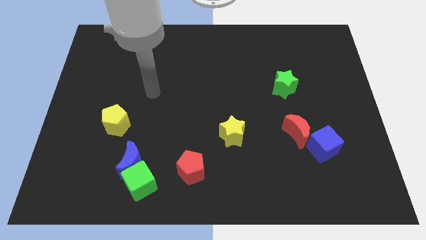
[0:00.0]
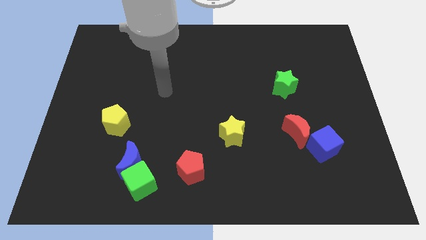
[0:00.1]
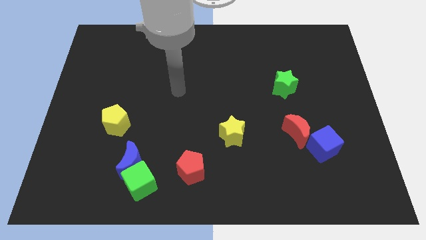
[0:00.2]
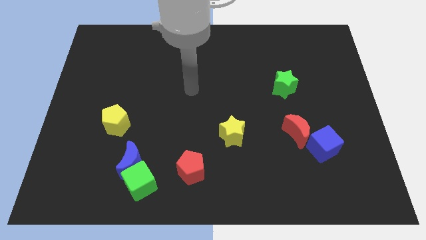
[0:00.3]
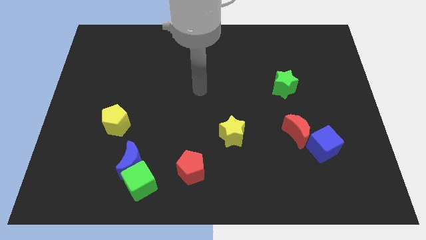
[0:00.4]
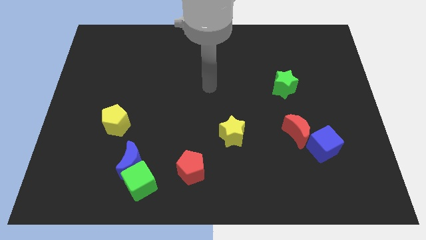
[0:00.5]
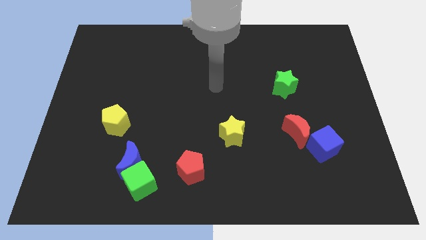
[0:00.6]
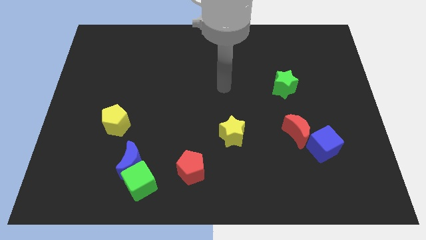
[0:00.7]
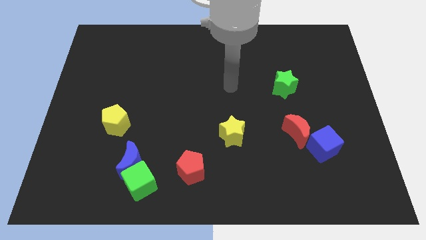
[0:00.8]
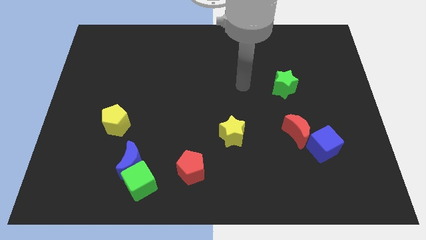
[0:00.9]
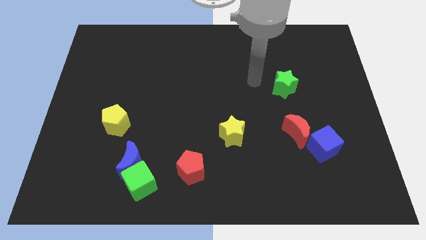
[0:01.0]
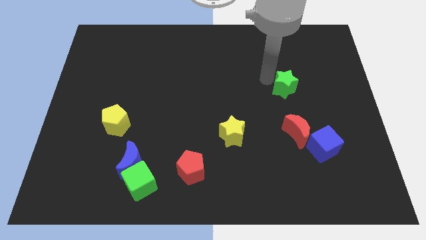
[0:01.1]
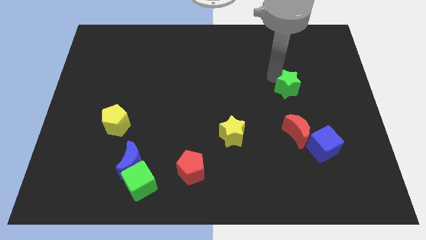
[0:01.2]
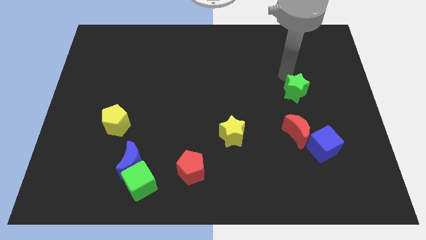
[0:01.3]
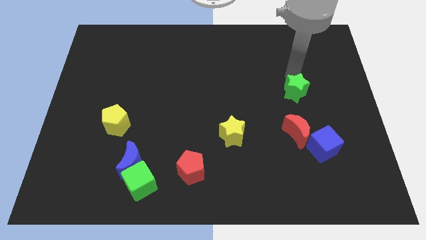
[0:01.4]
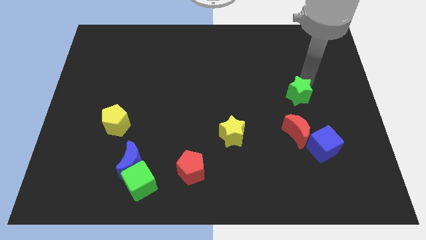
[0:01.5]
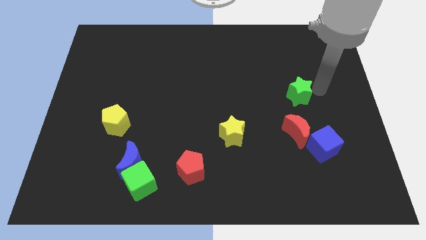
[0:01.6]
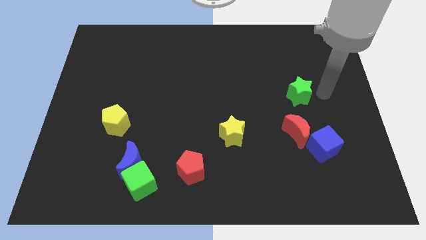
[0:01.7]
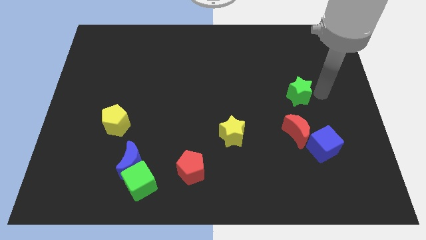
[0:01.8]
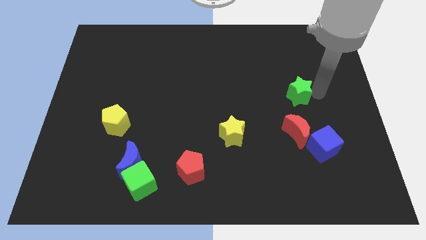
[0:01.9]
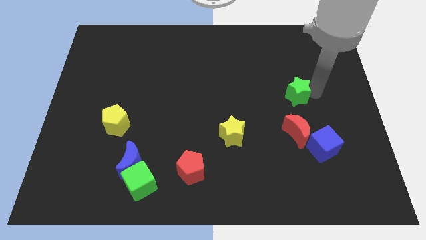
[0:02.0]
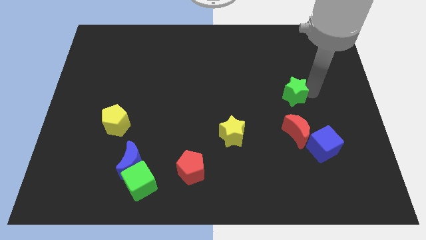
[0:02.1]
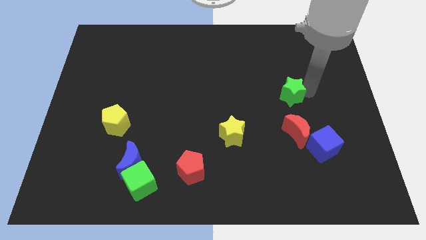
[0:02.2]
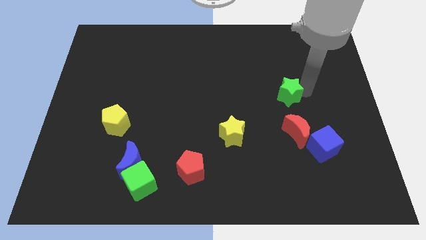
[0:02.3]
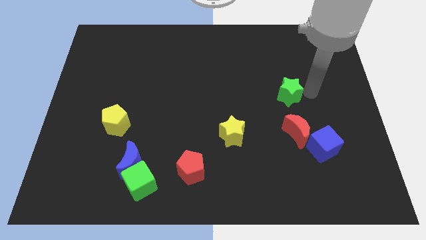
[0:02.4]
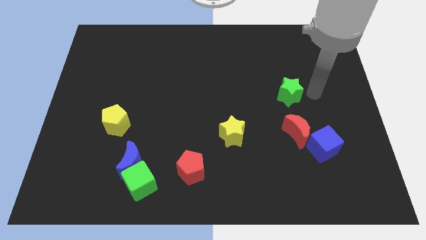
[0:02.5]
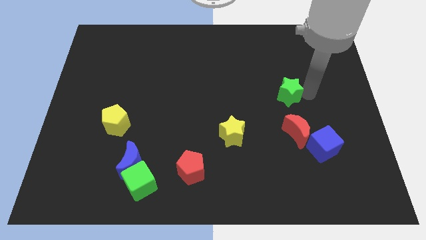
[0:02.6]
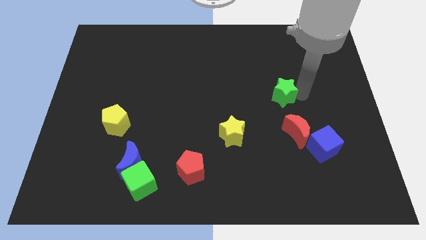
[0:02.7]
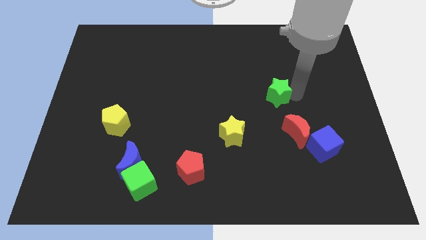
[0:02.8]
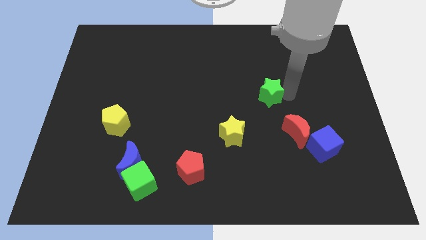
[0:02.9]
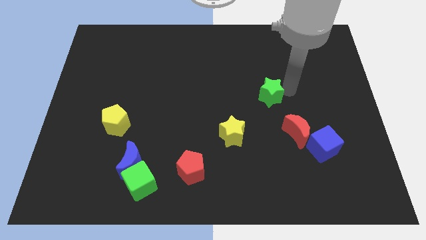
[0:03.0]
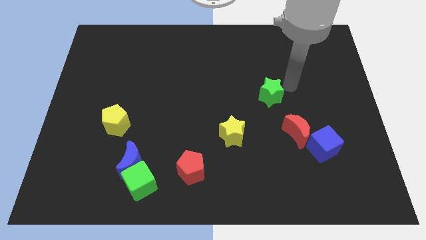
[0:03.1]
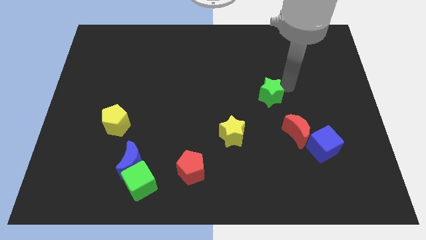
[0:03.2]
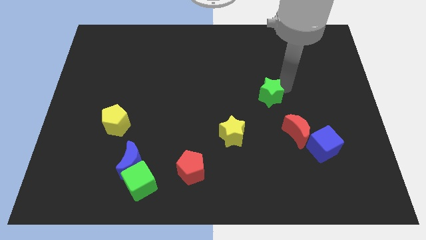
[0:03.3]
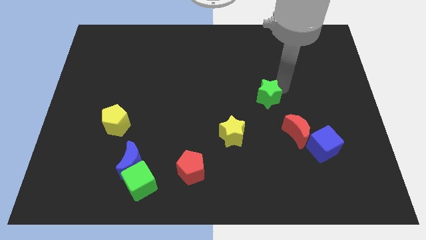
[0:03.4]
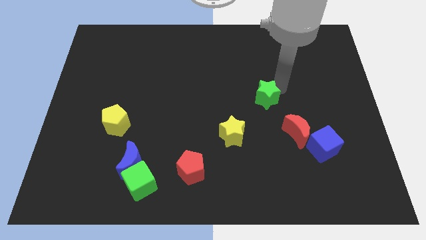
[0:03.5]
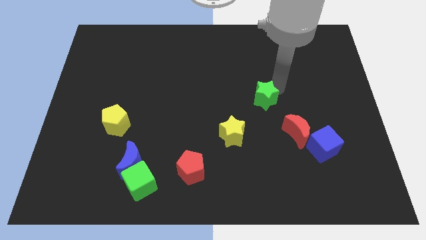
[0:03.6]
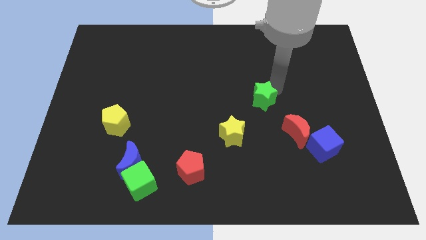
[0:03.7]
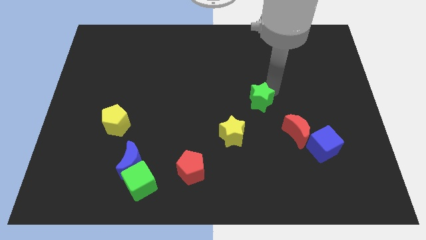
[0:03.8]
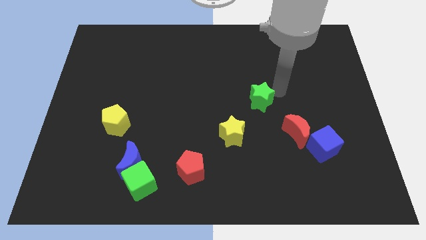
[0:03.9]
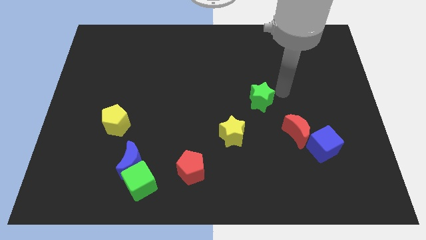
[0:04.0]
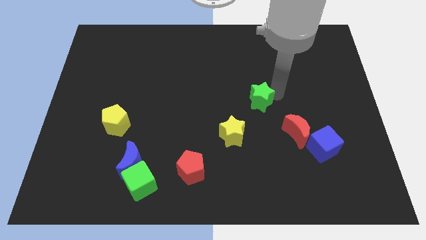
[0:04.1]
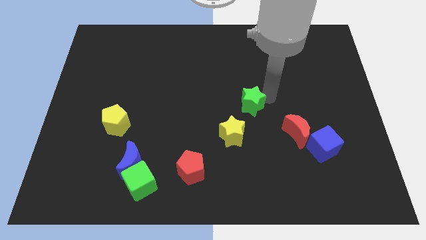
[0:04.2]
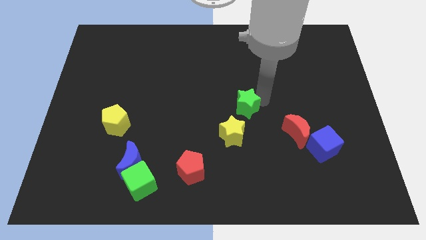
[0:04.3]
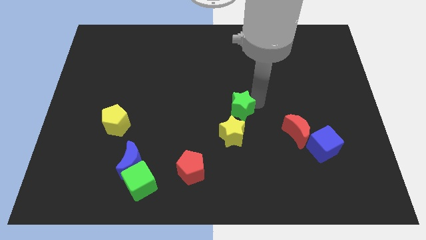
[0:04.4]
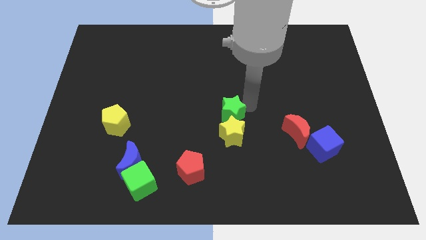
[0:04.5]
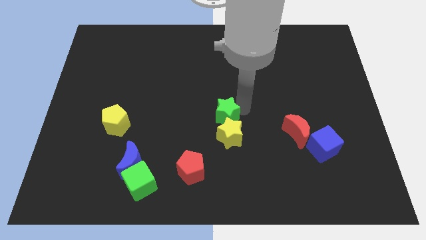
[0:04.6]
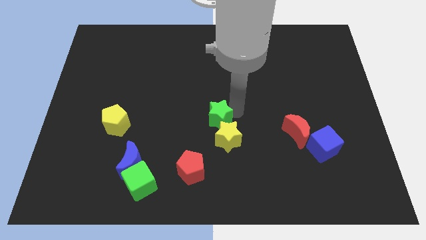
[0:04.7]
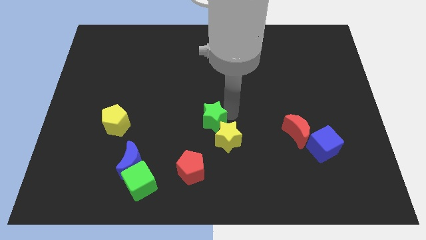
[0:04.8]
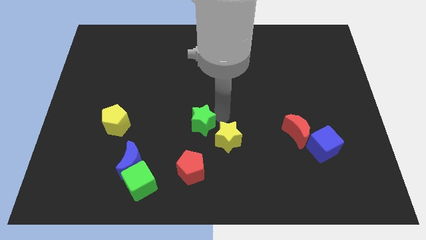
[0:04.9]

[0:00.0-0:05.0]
put the green star to the left side of the yellow star

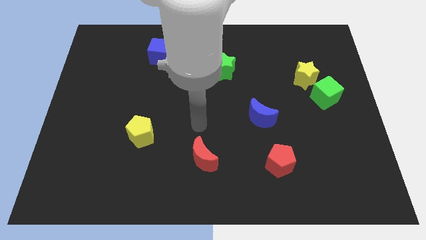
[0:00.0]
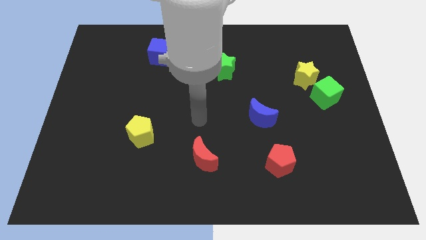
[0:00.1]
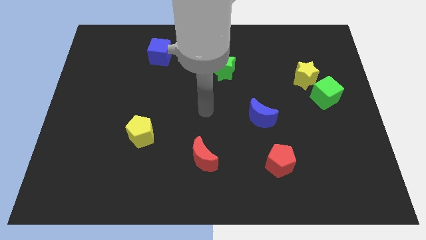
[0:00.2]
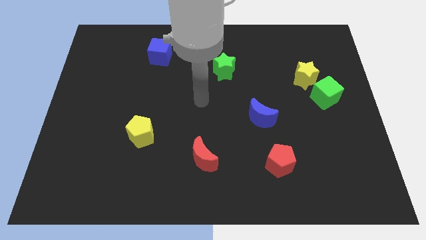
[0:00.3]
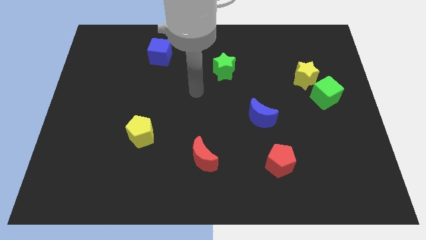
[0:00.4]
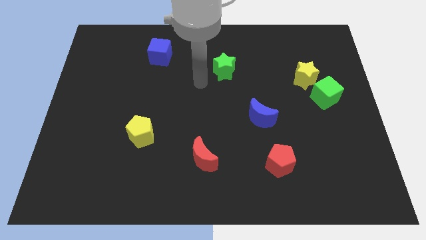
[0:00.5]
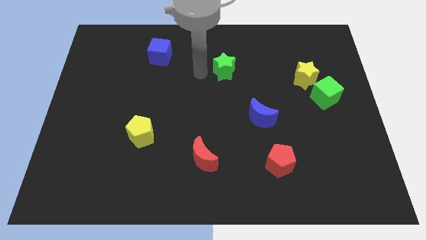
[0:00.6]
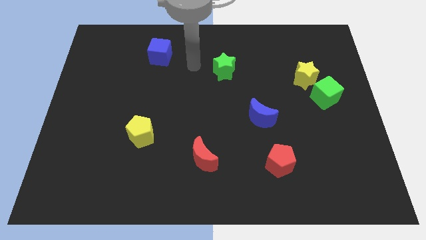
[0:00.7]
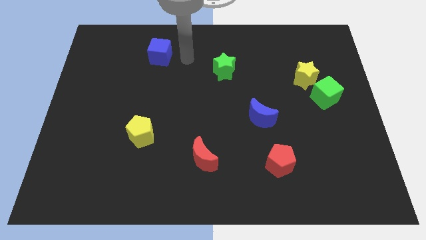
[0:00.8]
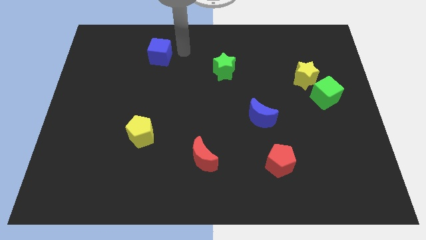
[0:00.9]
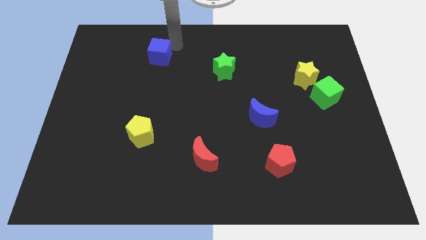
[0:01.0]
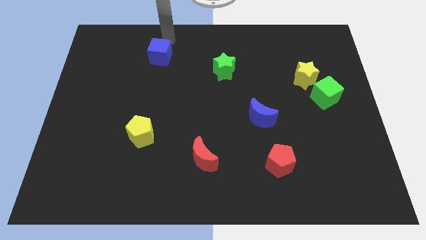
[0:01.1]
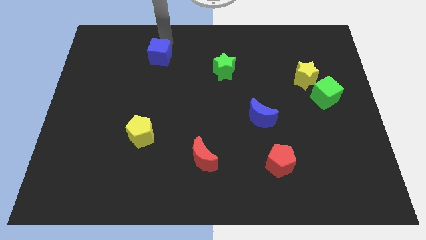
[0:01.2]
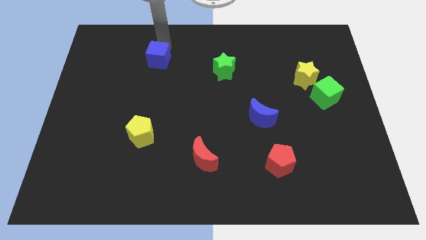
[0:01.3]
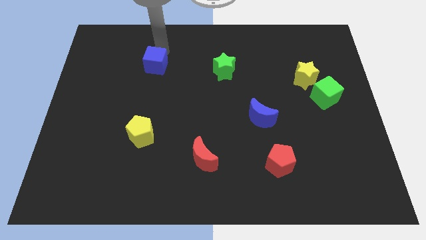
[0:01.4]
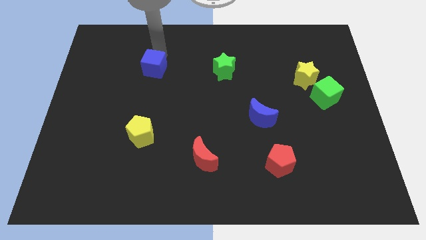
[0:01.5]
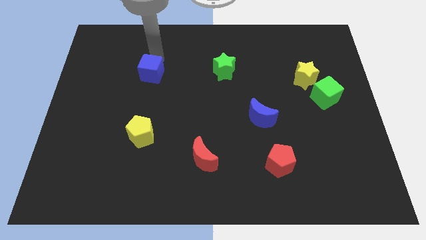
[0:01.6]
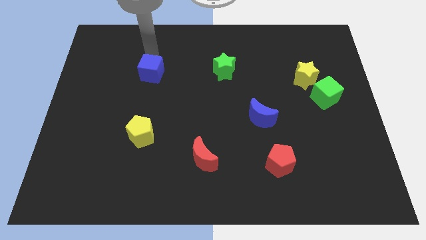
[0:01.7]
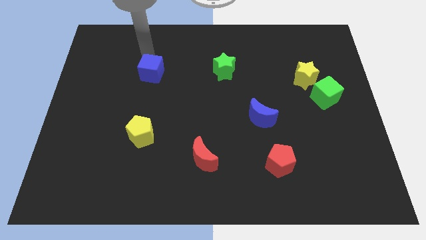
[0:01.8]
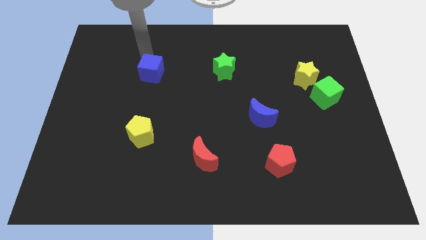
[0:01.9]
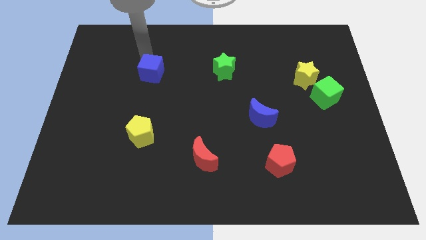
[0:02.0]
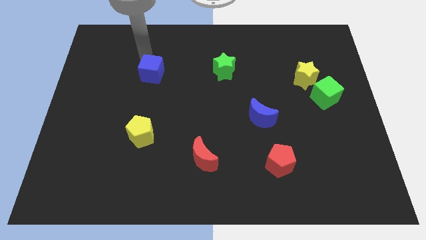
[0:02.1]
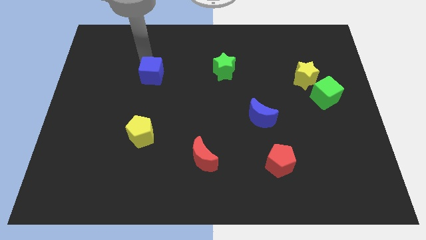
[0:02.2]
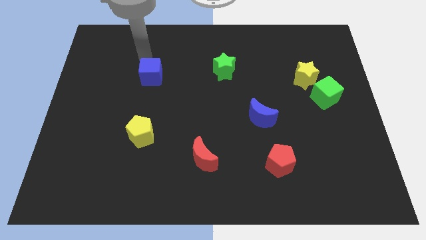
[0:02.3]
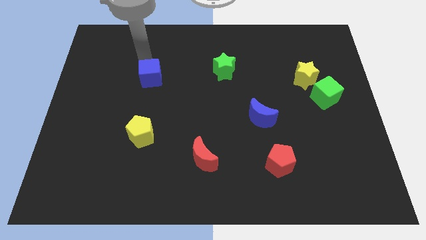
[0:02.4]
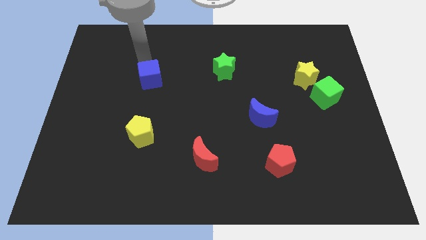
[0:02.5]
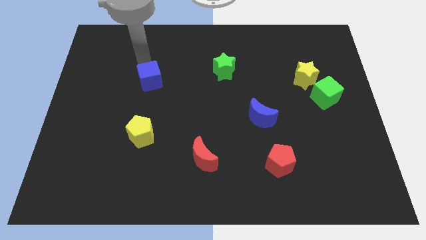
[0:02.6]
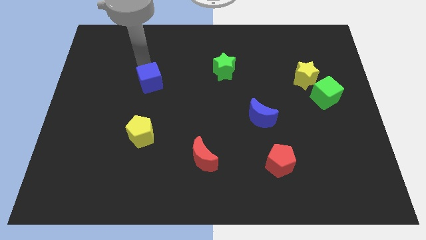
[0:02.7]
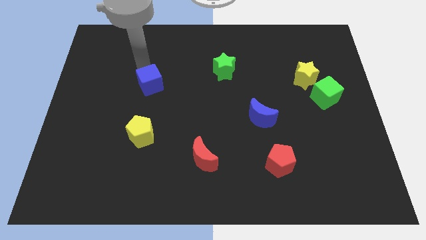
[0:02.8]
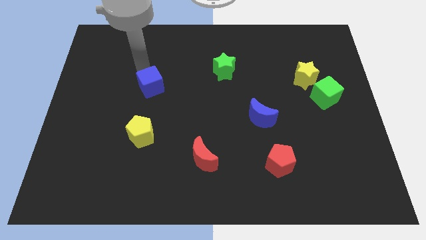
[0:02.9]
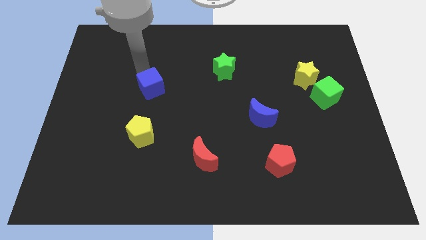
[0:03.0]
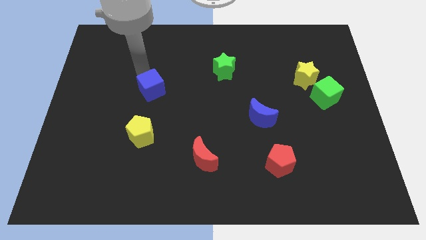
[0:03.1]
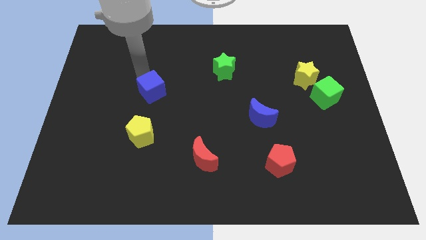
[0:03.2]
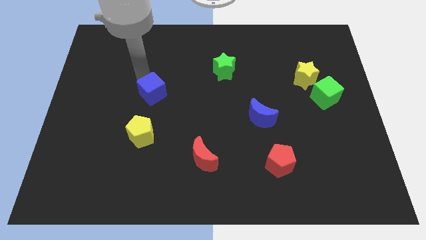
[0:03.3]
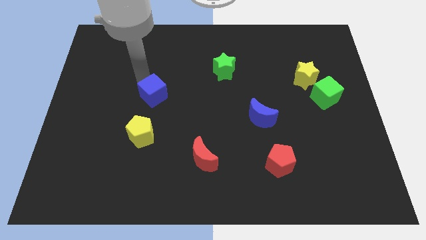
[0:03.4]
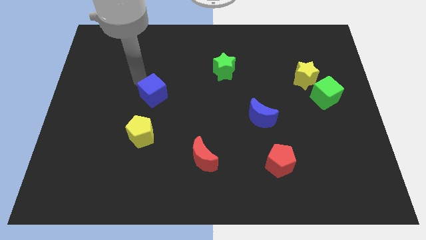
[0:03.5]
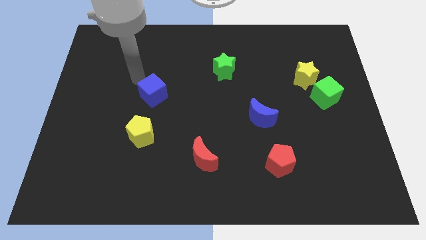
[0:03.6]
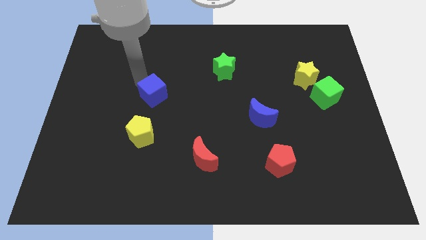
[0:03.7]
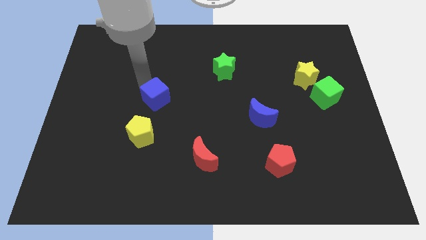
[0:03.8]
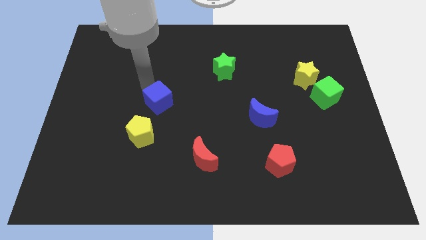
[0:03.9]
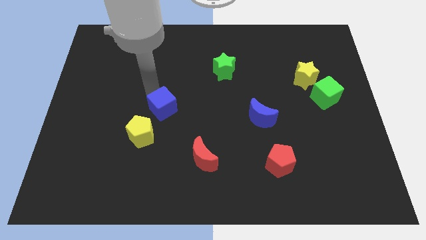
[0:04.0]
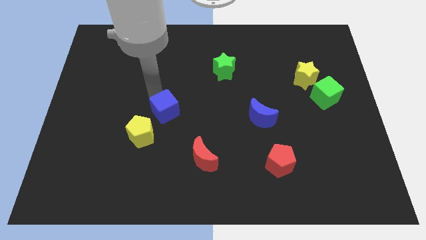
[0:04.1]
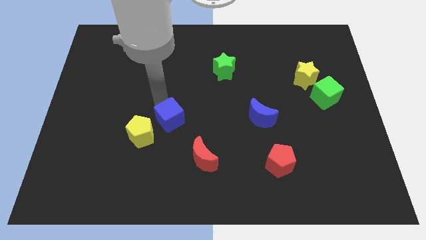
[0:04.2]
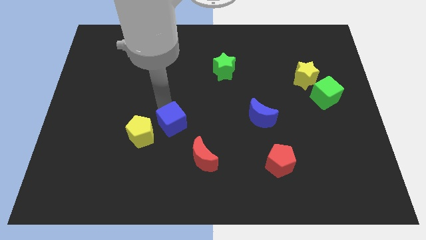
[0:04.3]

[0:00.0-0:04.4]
push the blue cube diagonally up and to the left of the red moon
